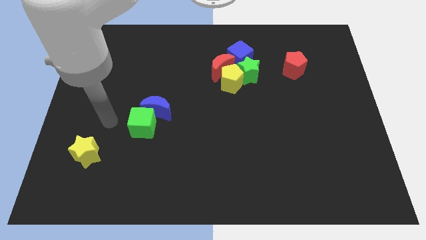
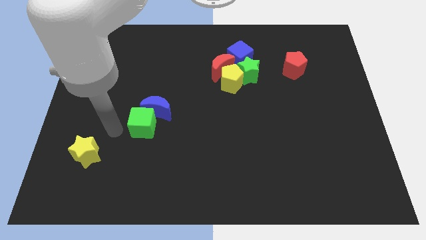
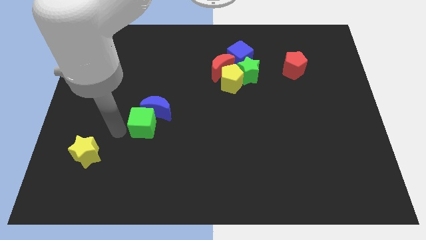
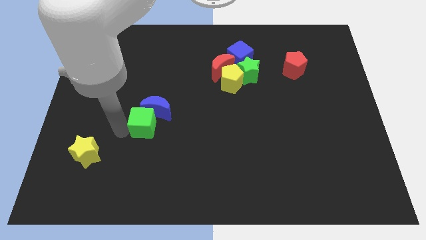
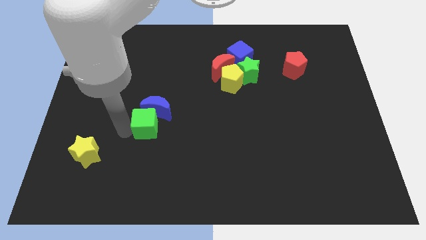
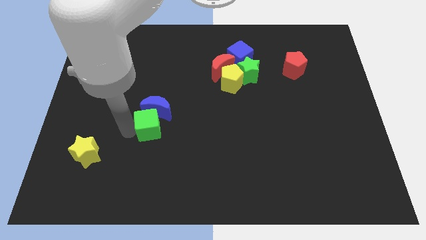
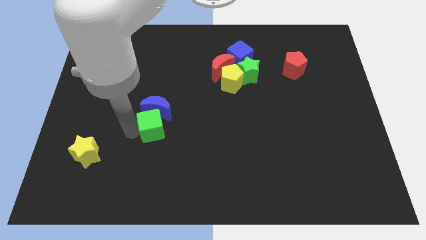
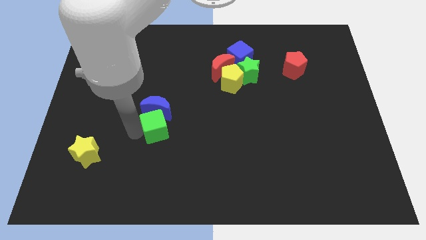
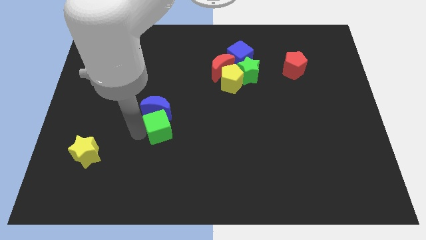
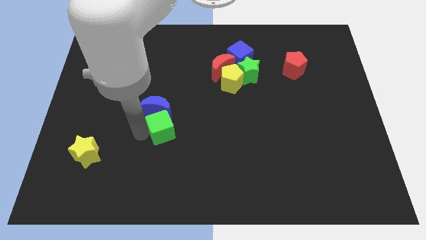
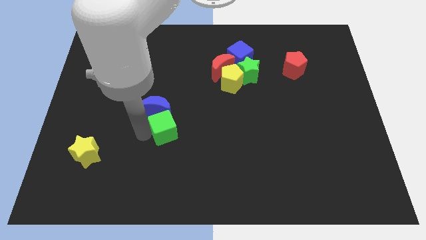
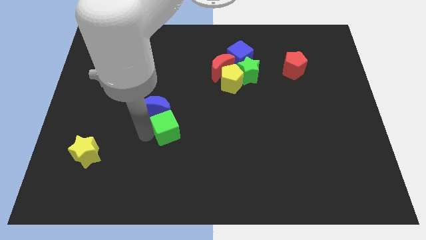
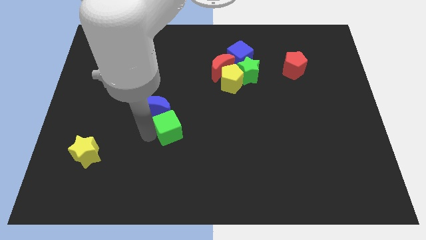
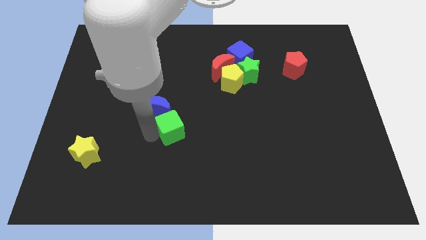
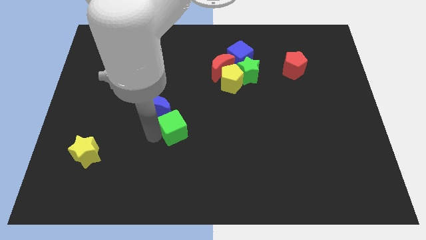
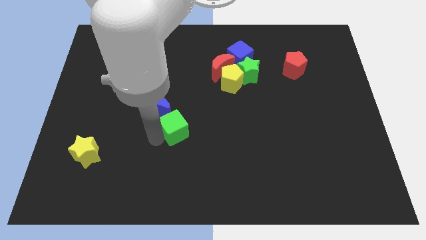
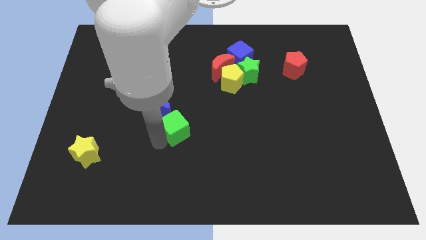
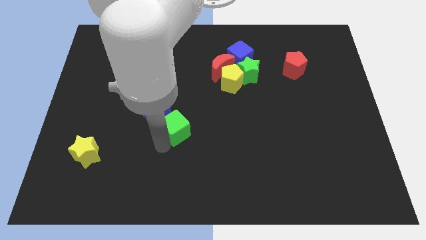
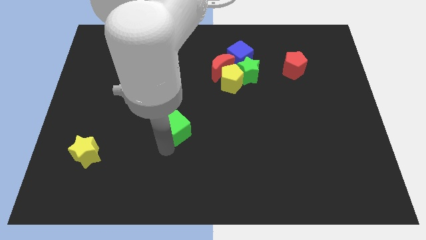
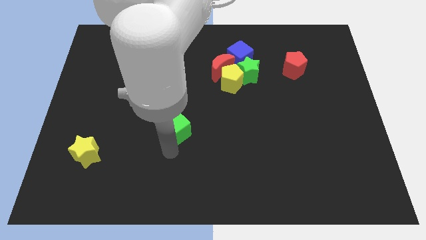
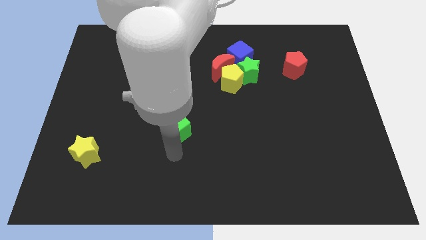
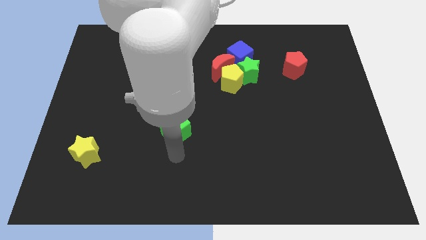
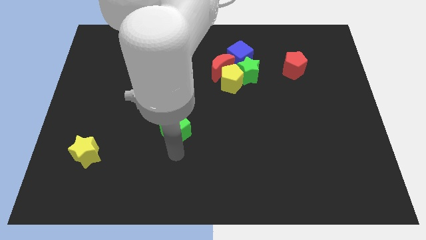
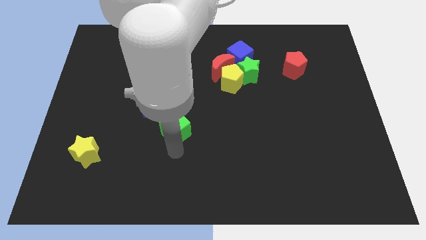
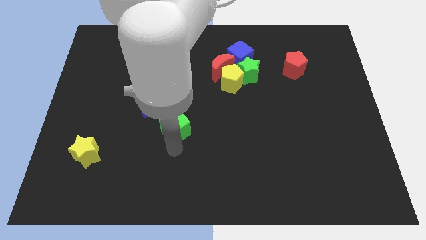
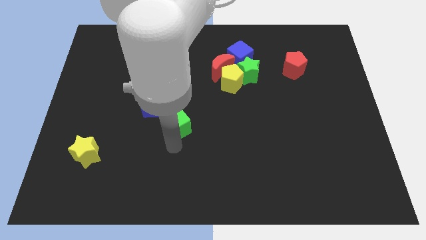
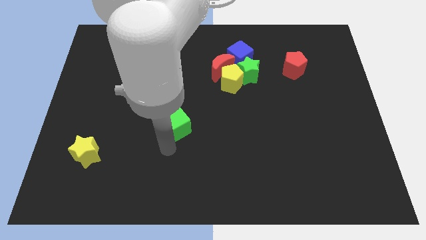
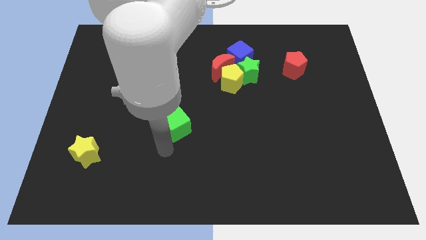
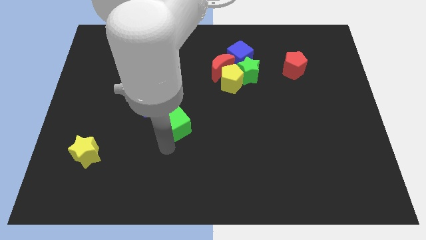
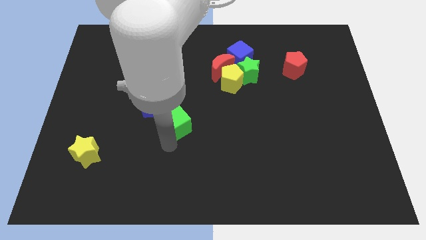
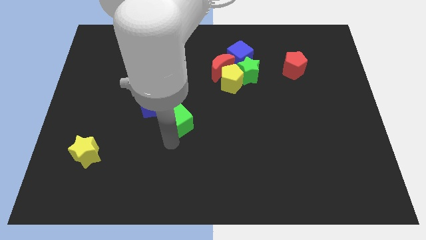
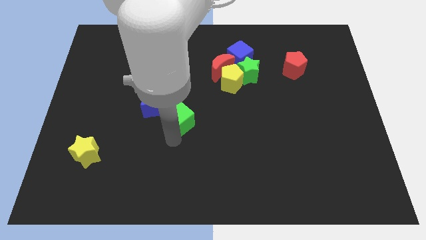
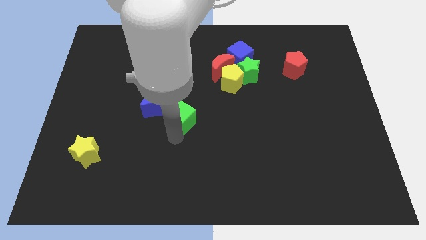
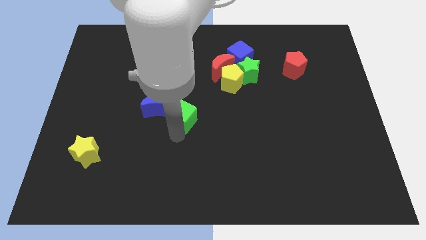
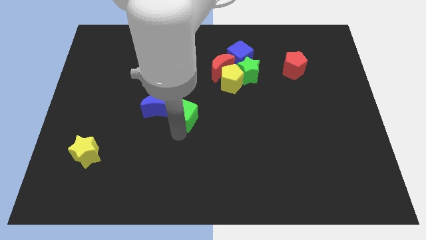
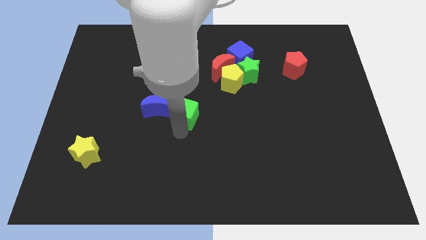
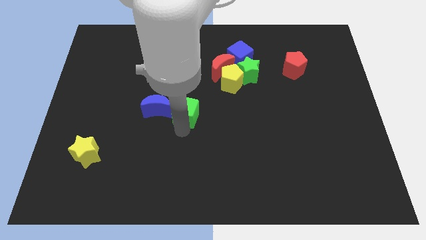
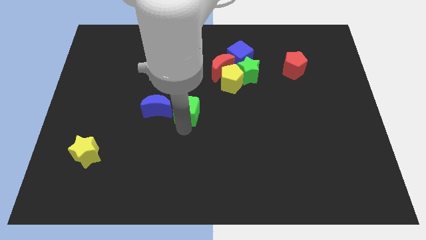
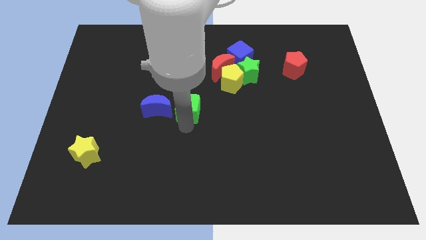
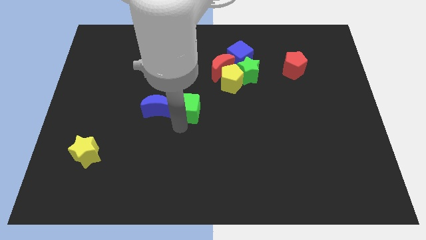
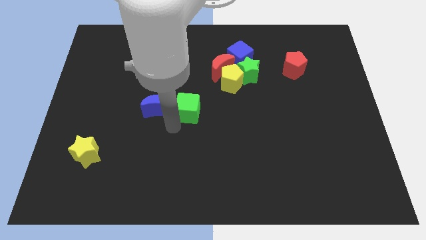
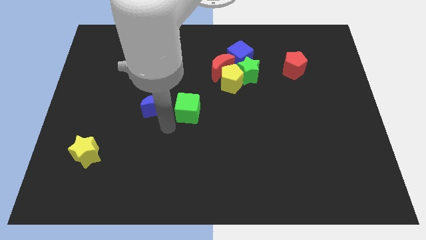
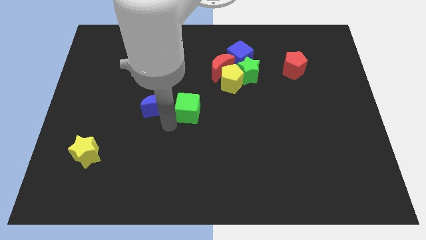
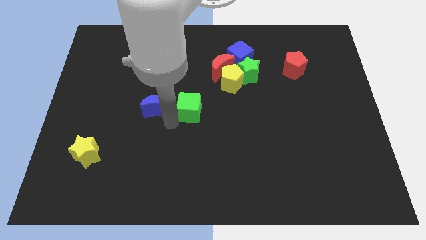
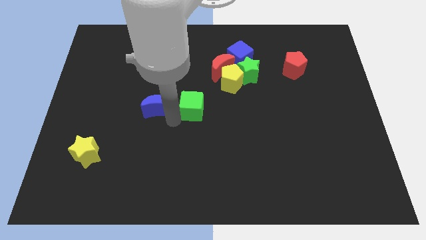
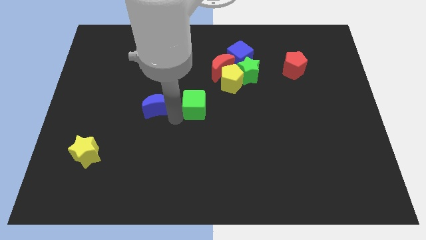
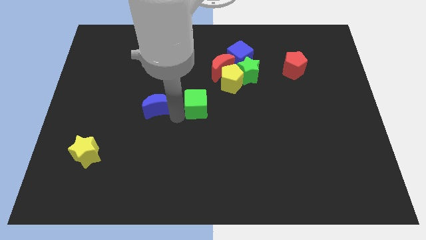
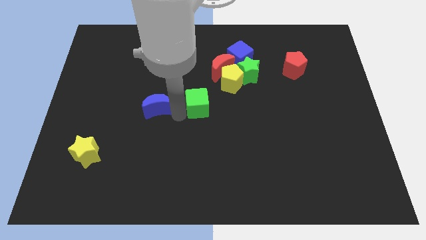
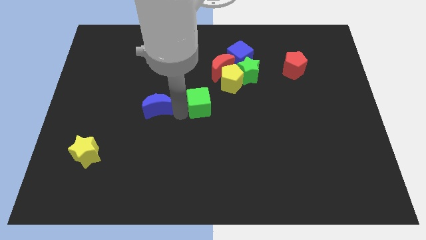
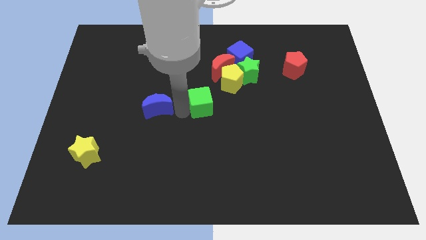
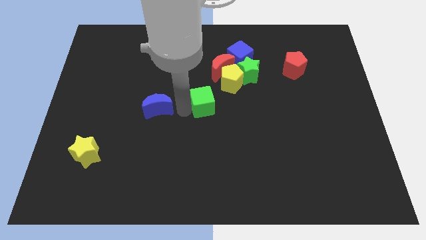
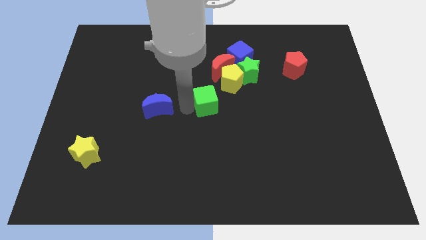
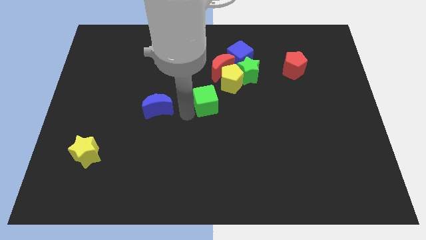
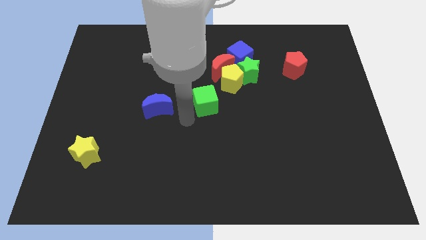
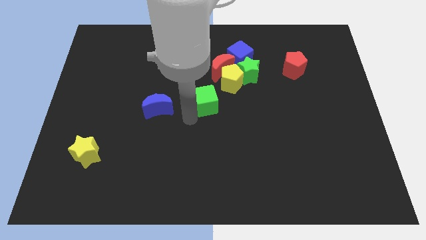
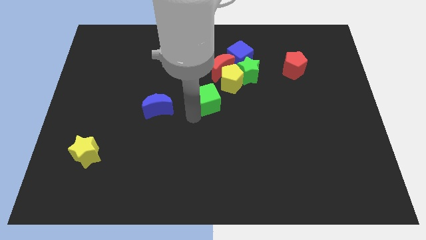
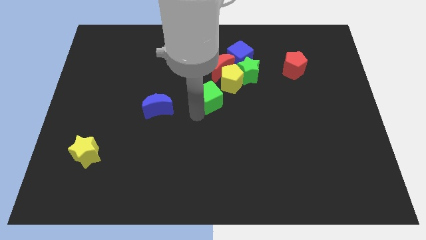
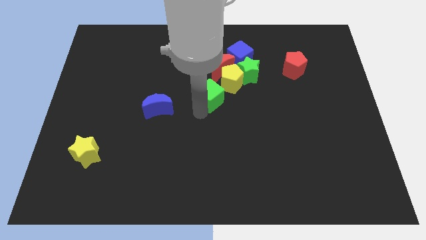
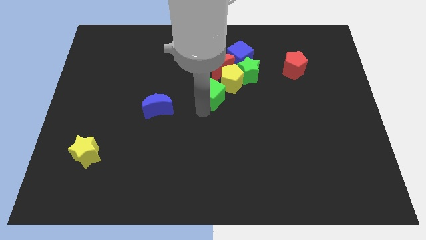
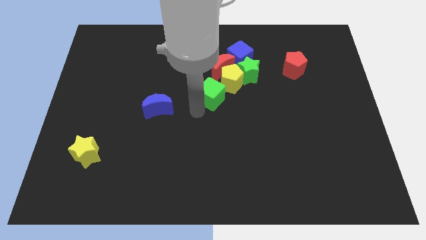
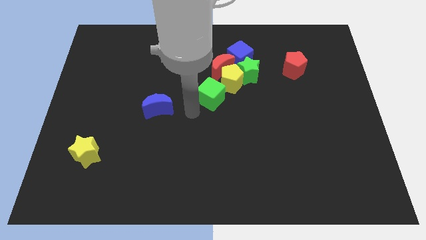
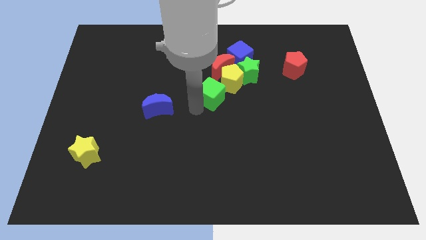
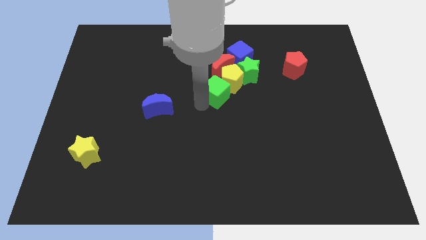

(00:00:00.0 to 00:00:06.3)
put the green cube to the yellow pentagon
